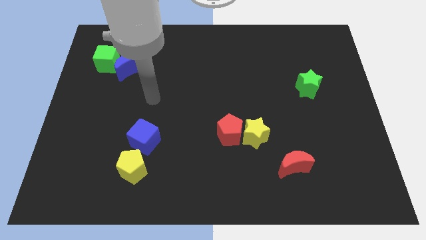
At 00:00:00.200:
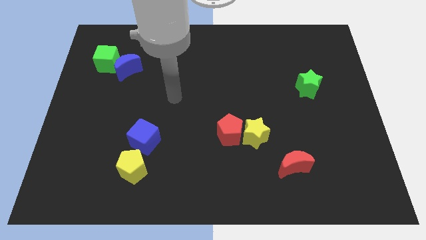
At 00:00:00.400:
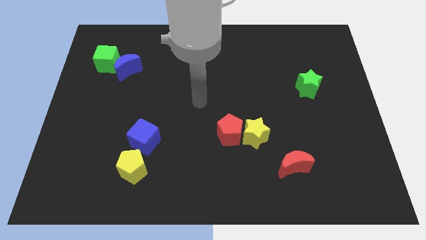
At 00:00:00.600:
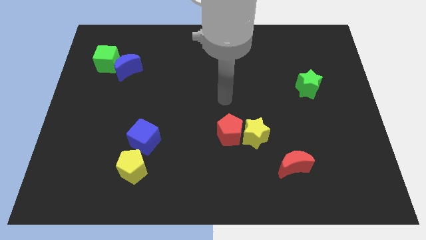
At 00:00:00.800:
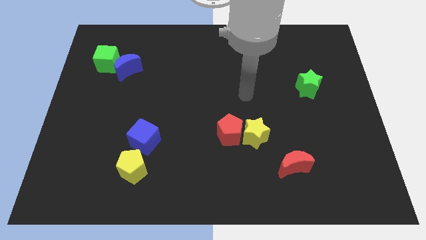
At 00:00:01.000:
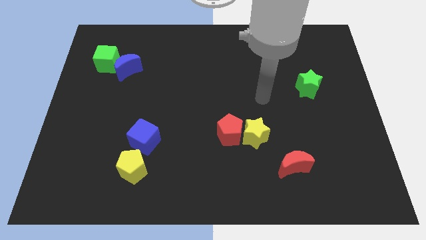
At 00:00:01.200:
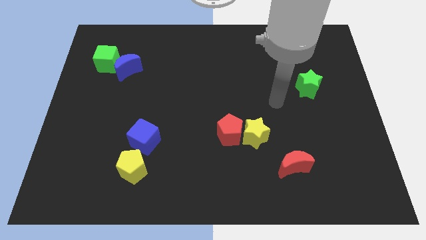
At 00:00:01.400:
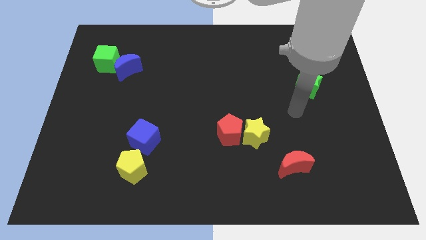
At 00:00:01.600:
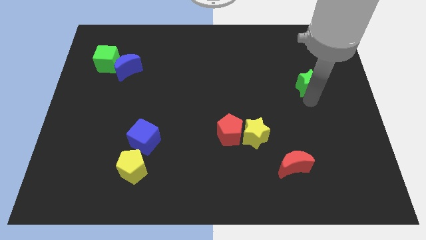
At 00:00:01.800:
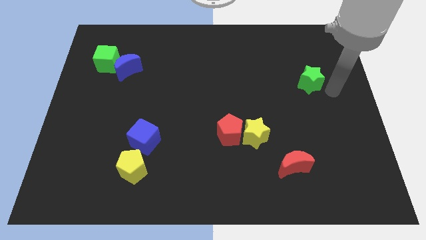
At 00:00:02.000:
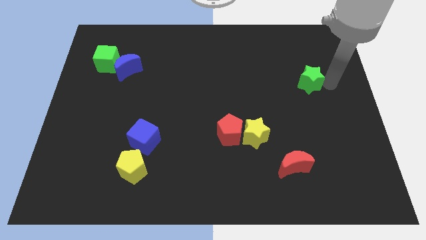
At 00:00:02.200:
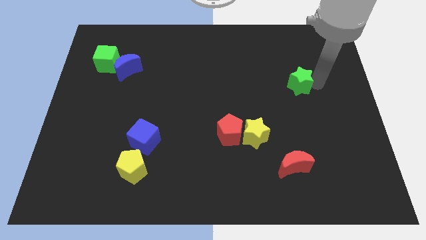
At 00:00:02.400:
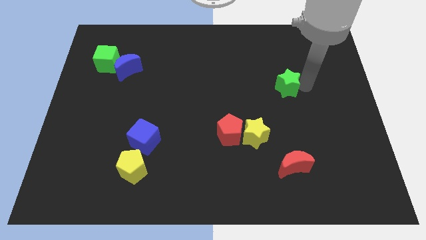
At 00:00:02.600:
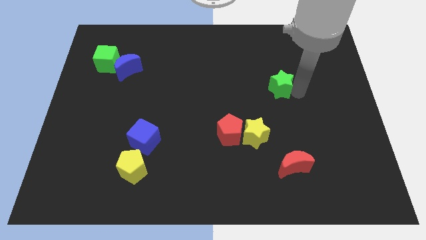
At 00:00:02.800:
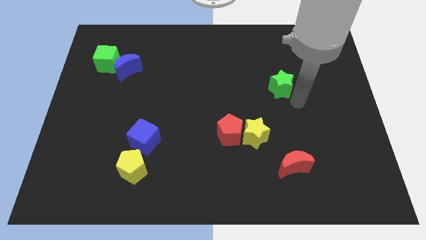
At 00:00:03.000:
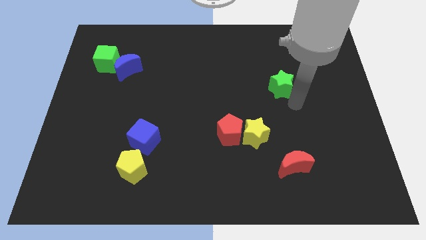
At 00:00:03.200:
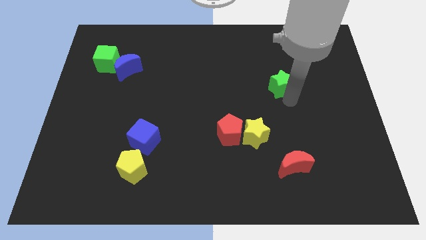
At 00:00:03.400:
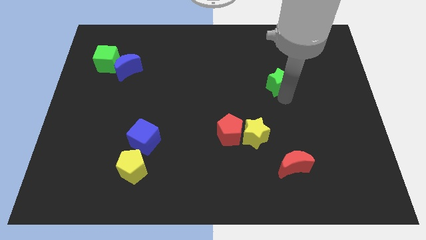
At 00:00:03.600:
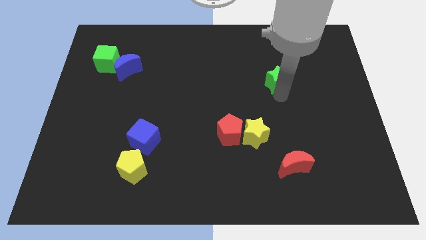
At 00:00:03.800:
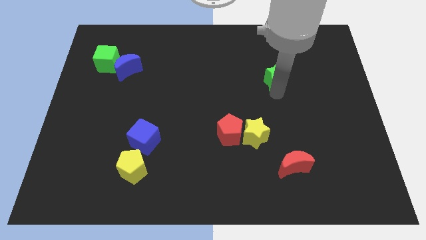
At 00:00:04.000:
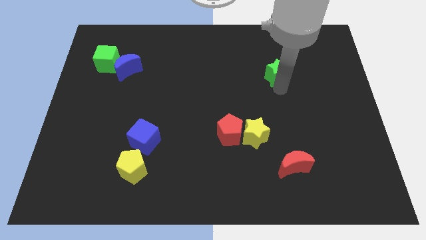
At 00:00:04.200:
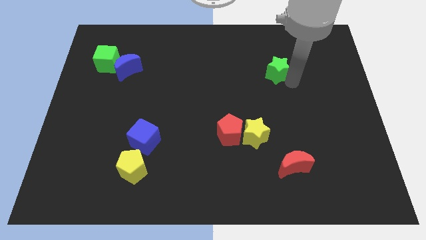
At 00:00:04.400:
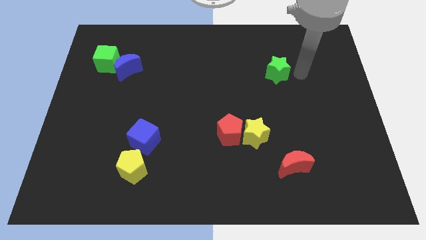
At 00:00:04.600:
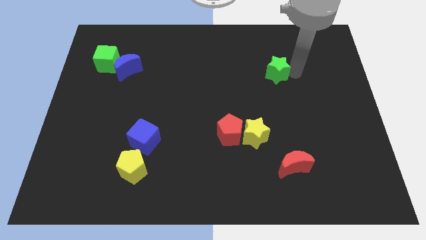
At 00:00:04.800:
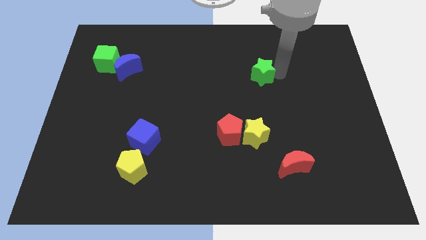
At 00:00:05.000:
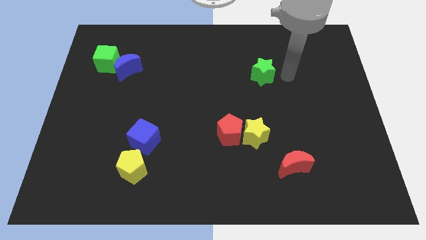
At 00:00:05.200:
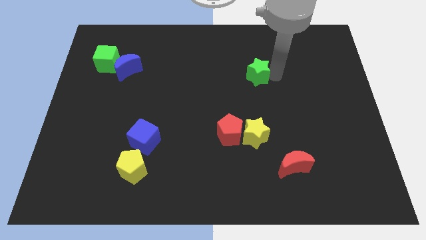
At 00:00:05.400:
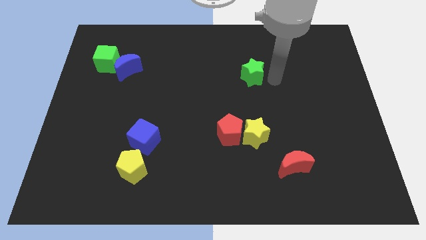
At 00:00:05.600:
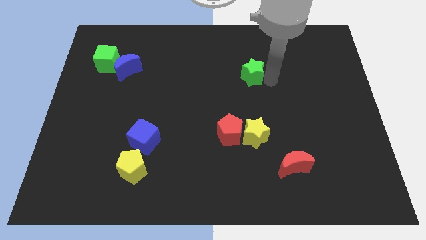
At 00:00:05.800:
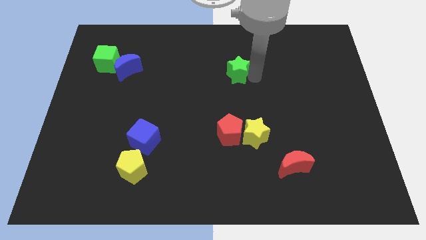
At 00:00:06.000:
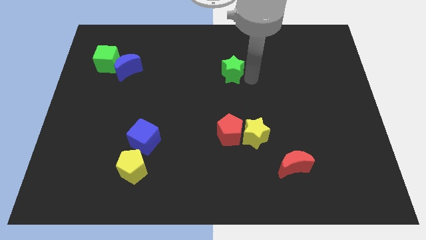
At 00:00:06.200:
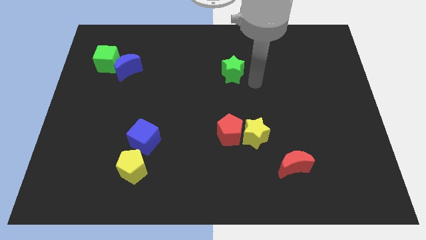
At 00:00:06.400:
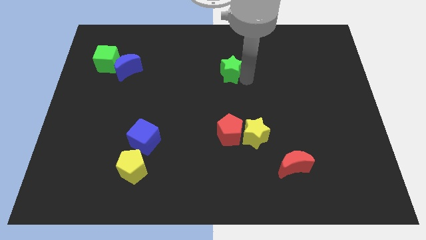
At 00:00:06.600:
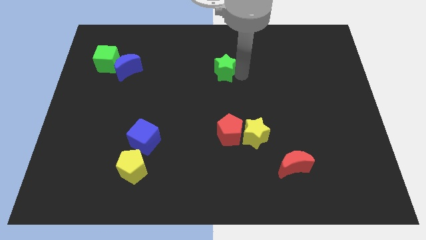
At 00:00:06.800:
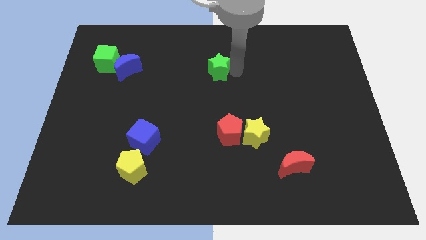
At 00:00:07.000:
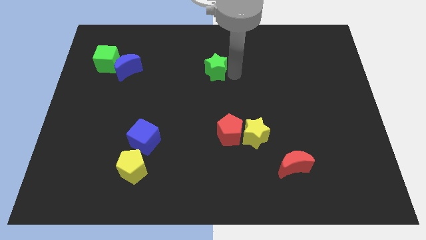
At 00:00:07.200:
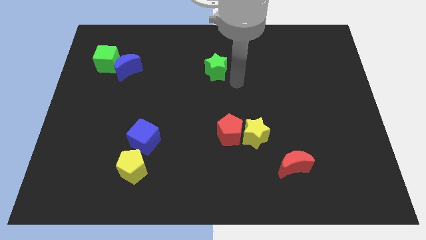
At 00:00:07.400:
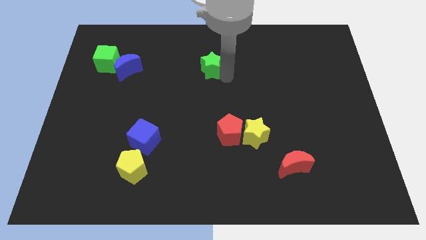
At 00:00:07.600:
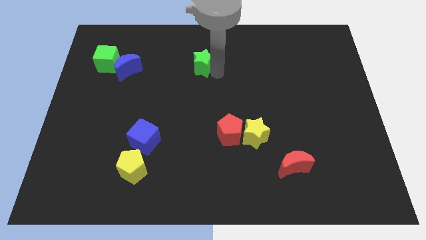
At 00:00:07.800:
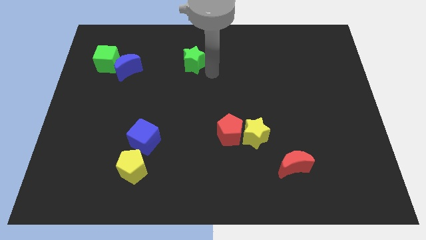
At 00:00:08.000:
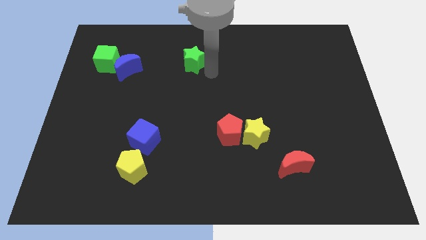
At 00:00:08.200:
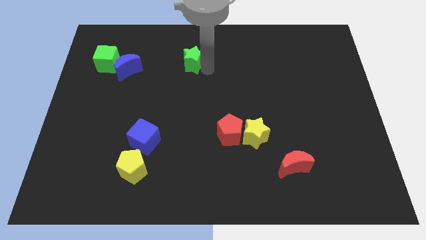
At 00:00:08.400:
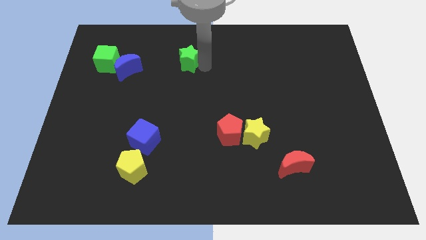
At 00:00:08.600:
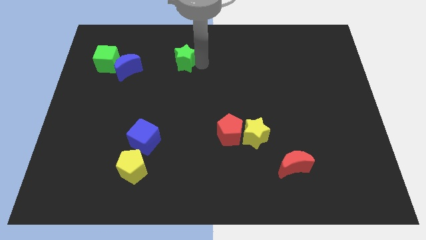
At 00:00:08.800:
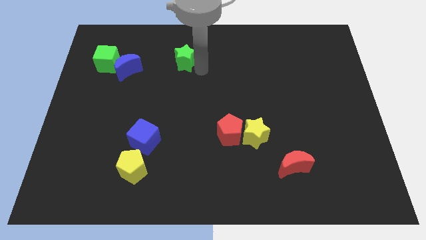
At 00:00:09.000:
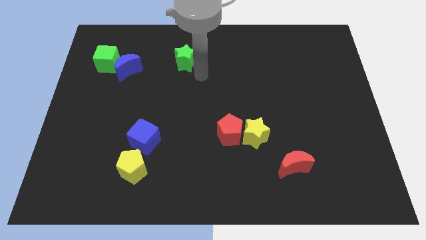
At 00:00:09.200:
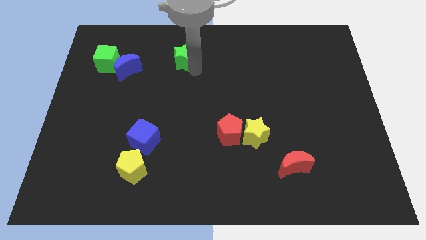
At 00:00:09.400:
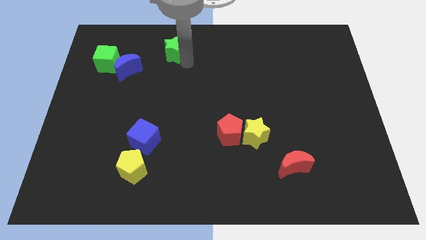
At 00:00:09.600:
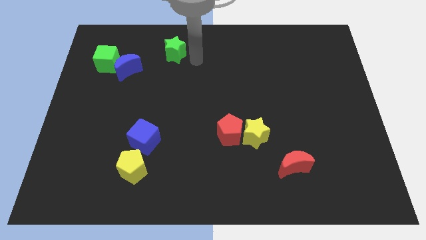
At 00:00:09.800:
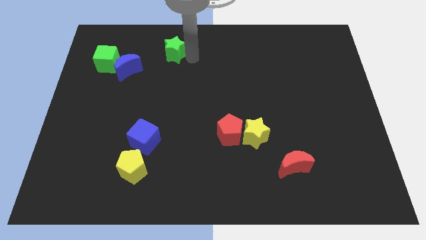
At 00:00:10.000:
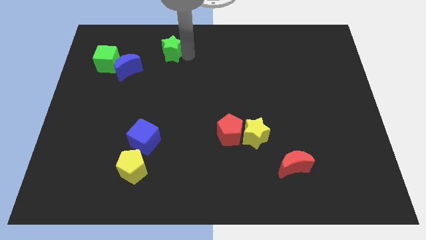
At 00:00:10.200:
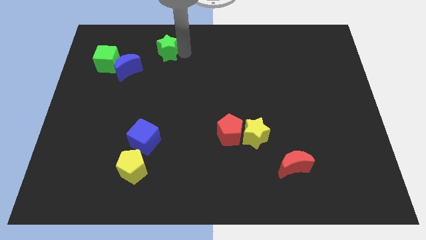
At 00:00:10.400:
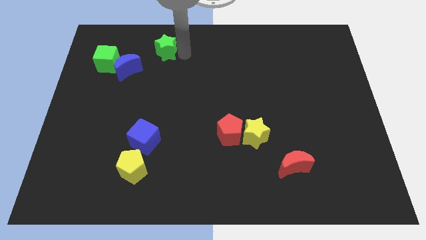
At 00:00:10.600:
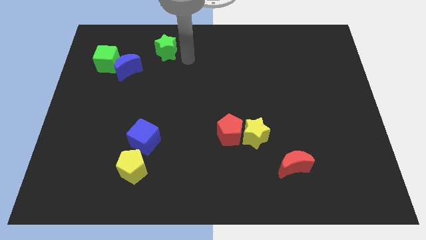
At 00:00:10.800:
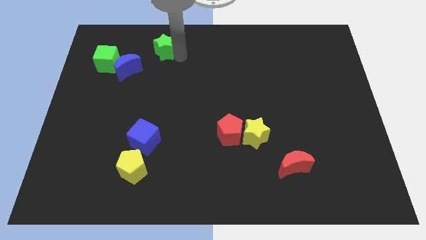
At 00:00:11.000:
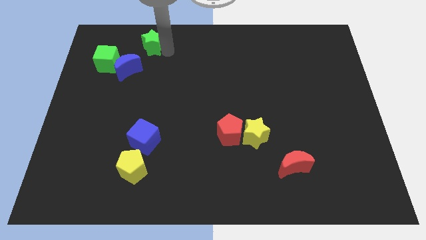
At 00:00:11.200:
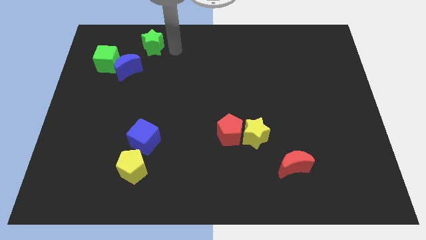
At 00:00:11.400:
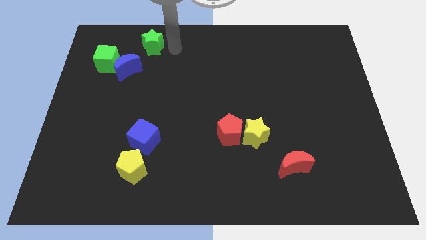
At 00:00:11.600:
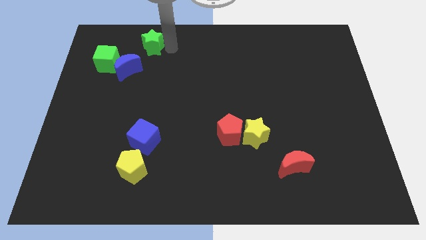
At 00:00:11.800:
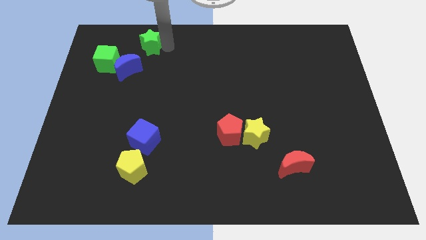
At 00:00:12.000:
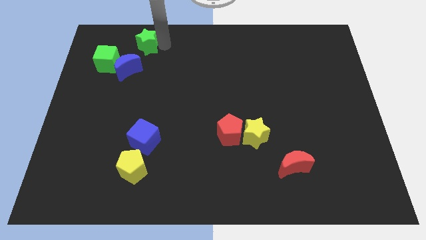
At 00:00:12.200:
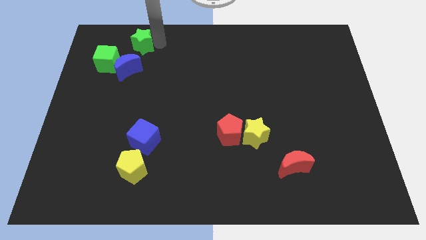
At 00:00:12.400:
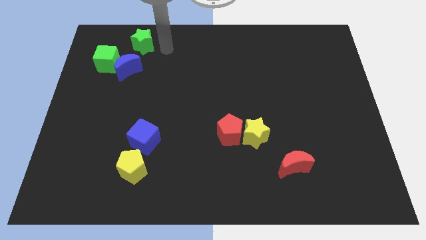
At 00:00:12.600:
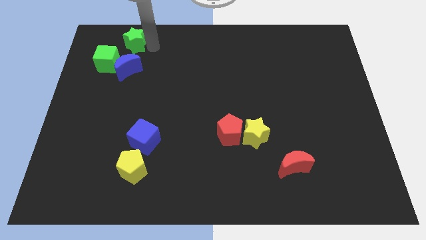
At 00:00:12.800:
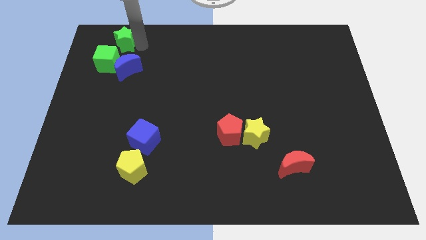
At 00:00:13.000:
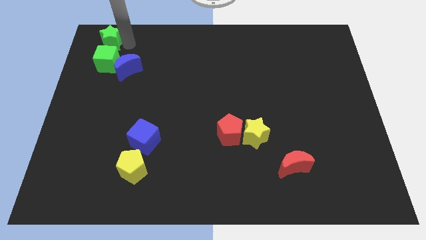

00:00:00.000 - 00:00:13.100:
push the green star to the top left
